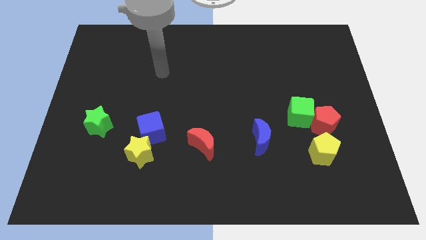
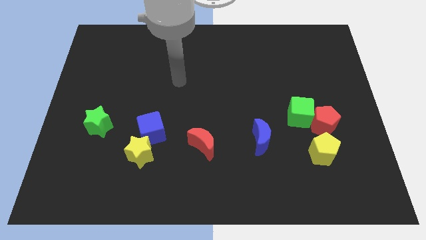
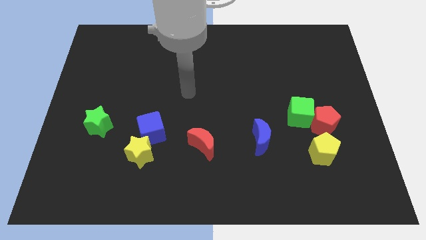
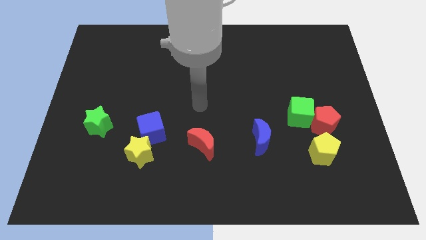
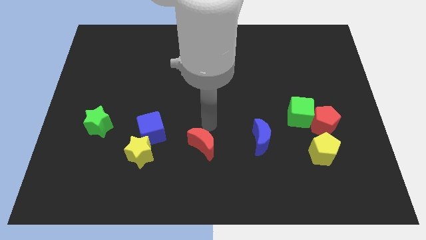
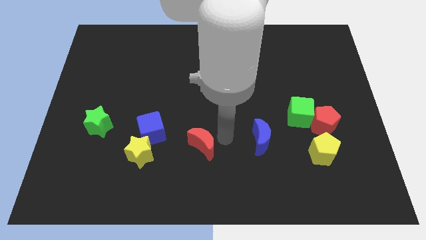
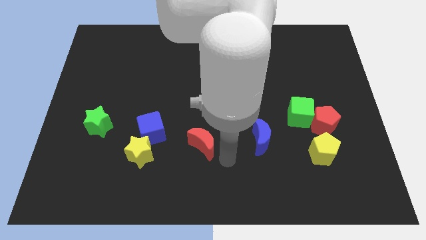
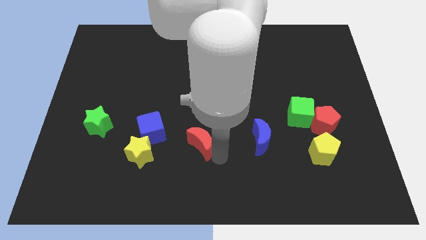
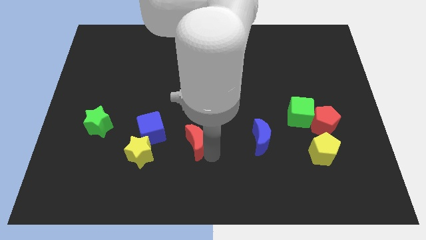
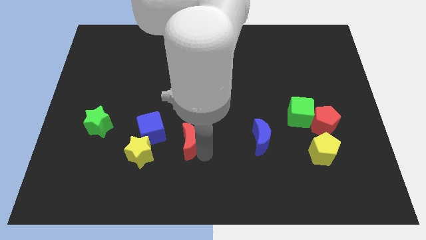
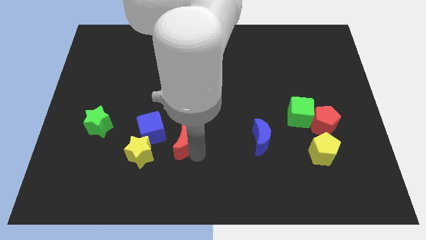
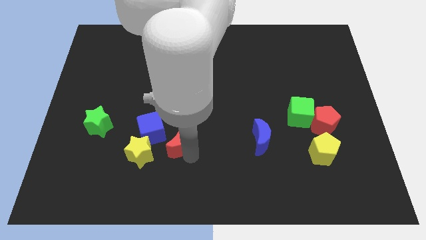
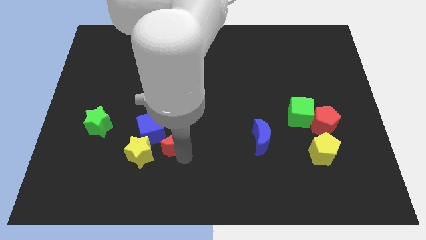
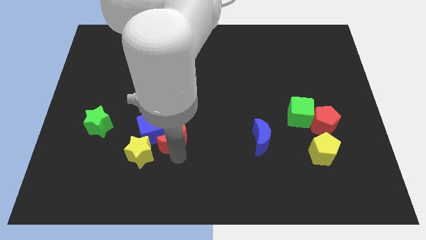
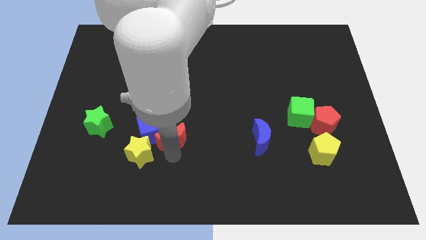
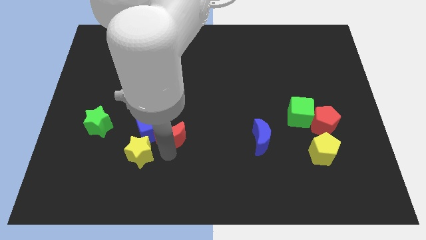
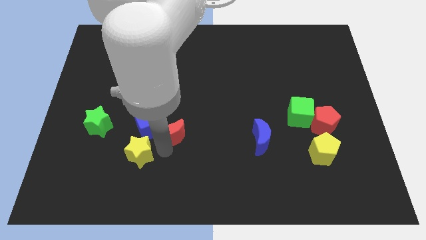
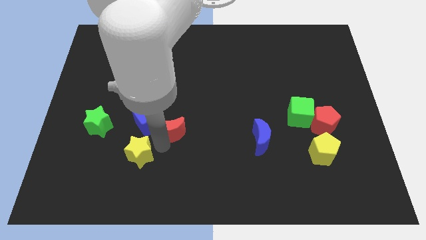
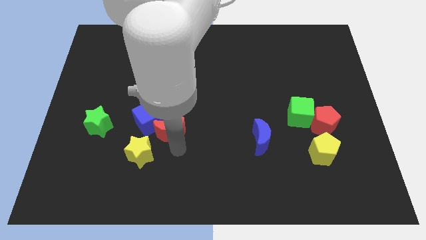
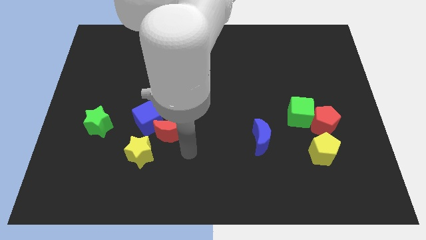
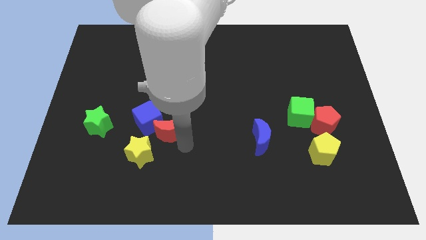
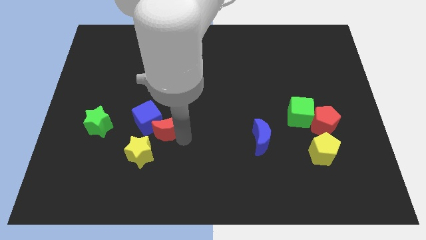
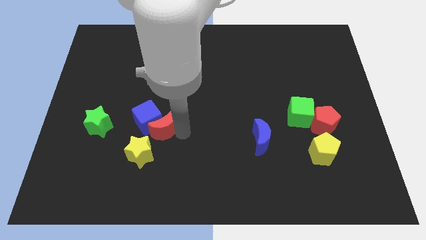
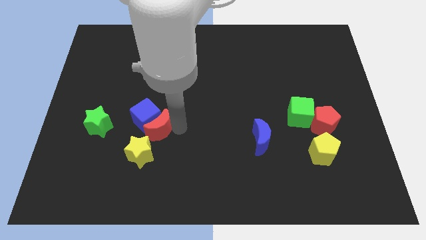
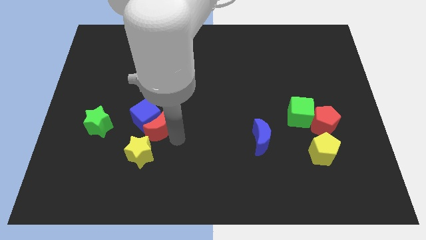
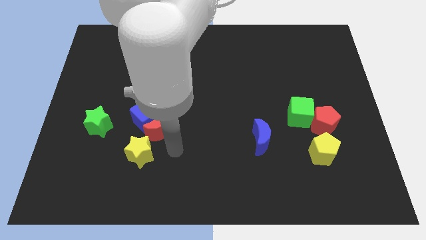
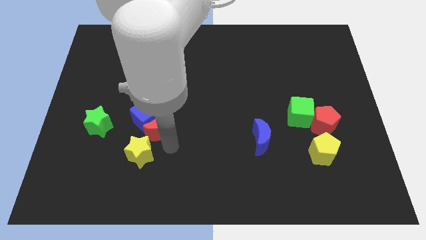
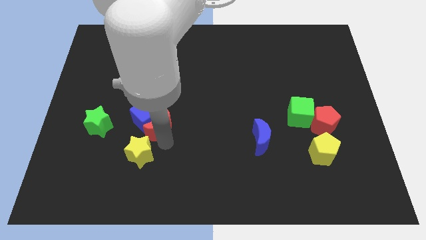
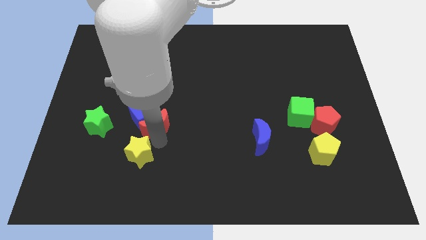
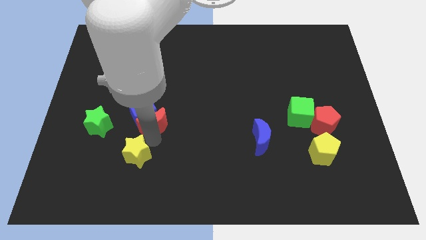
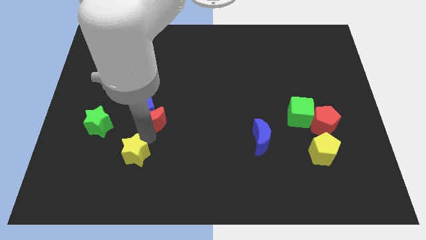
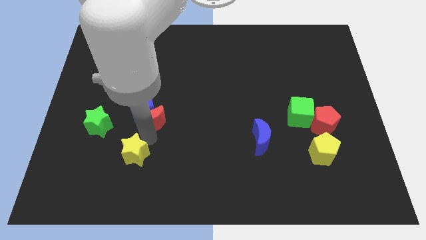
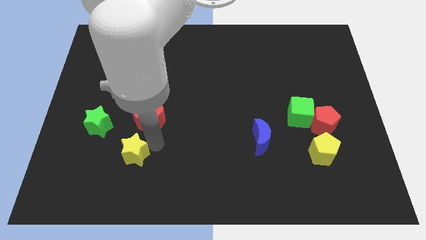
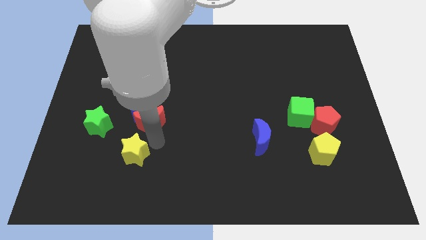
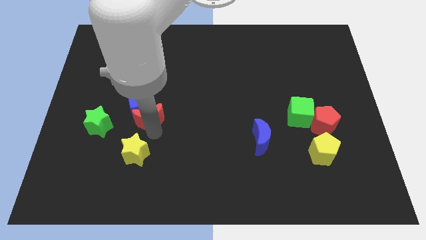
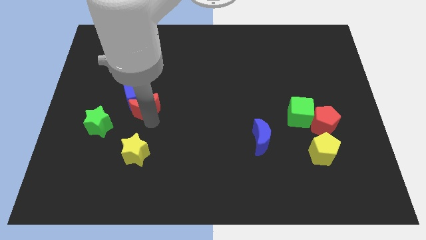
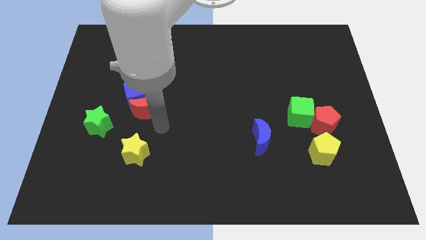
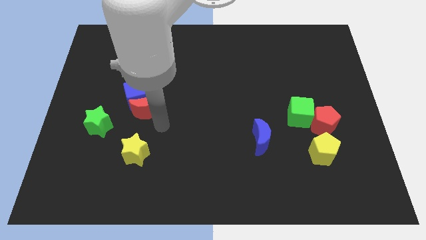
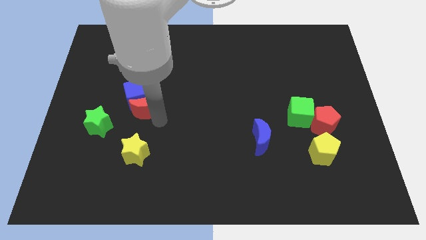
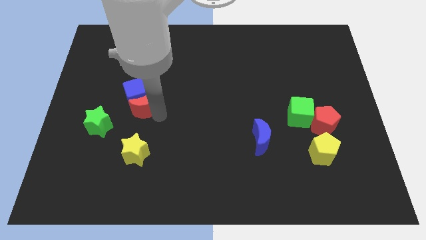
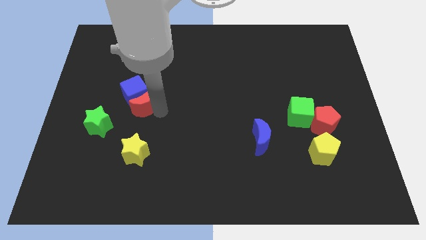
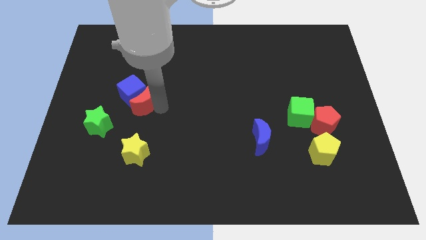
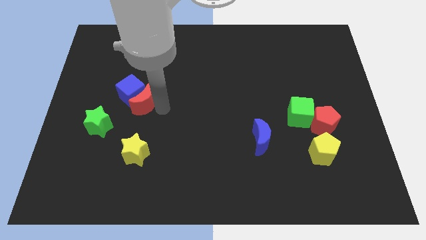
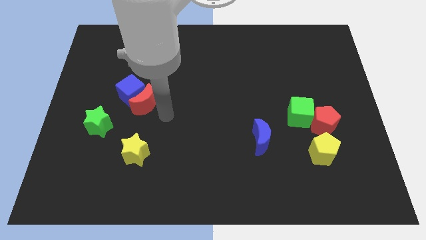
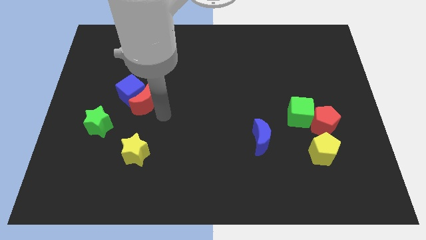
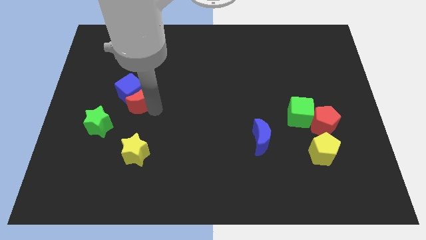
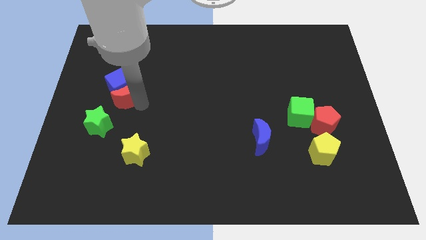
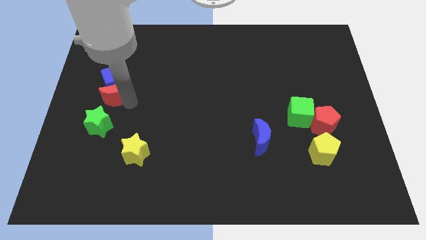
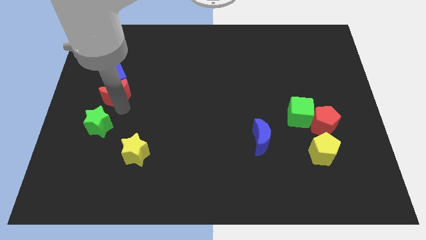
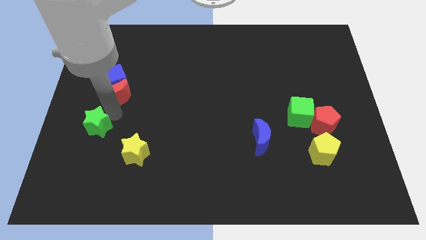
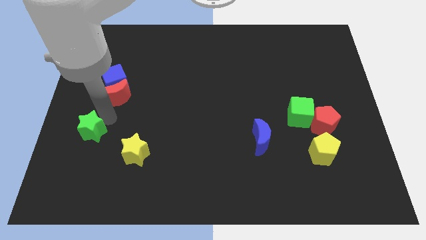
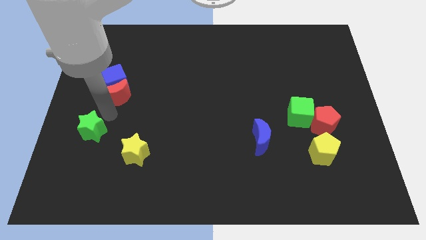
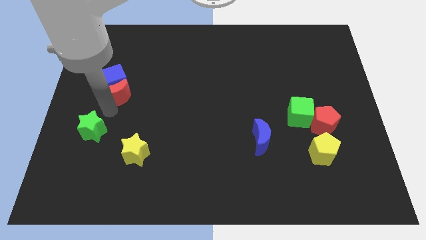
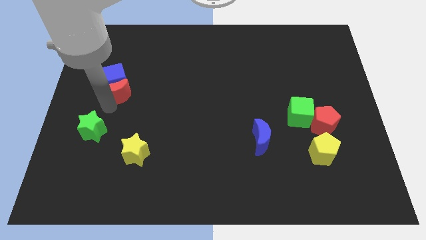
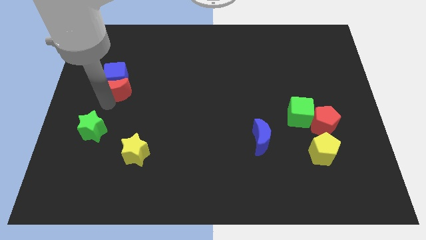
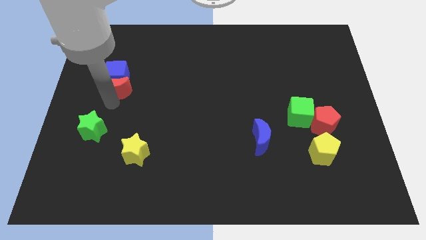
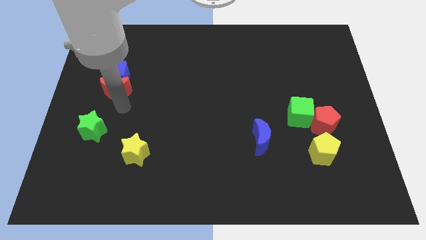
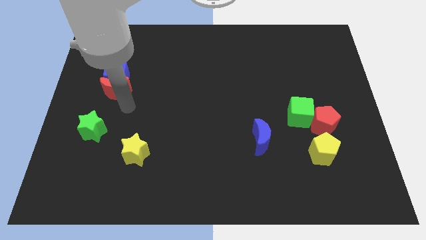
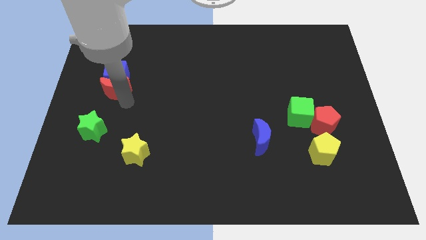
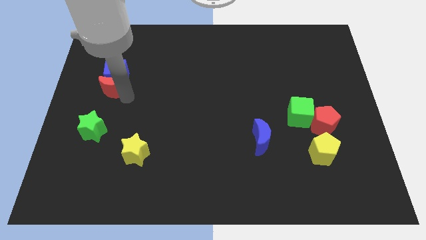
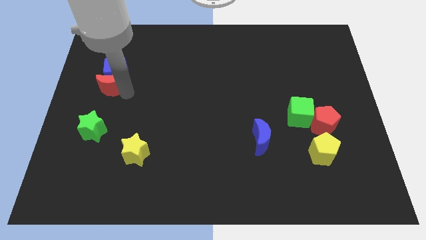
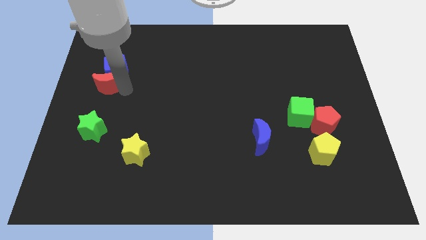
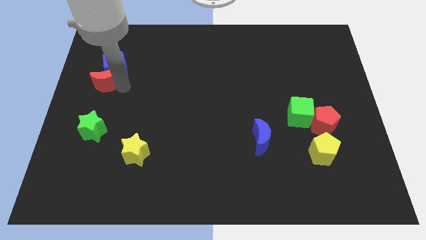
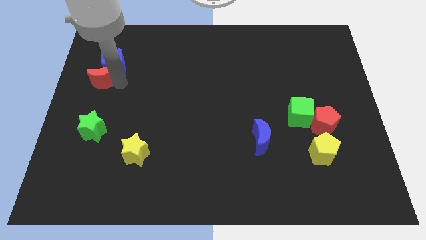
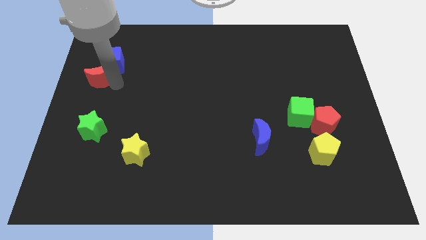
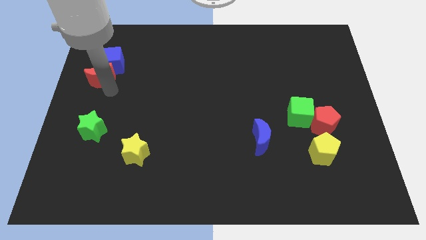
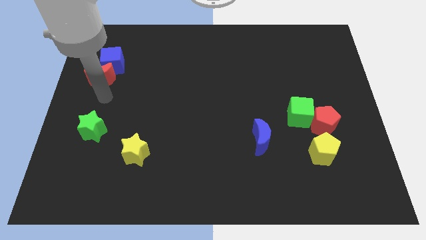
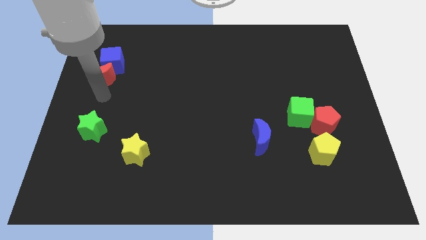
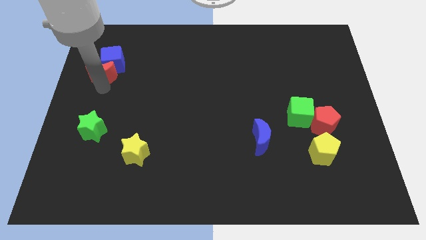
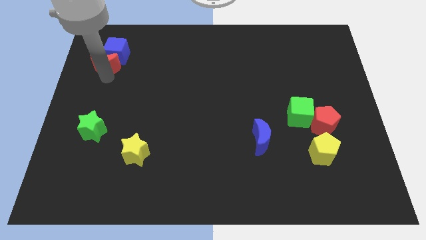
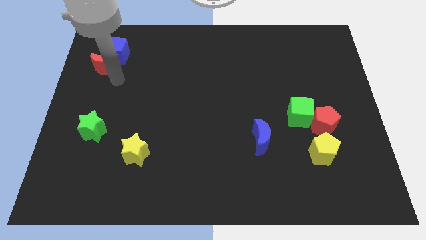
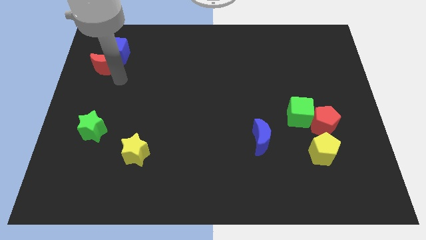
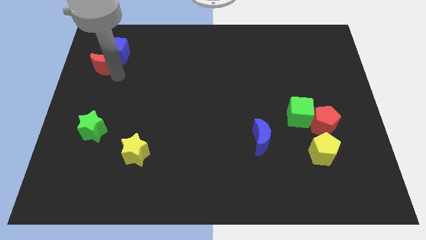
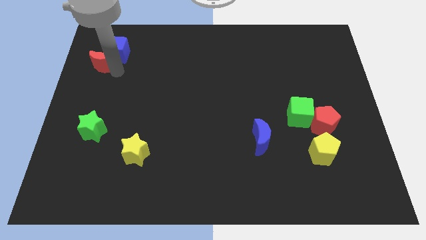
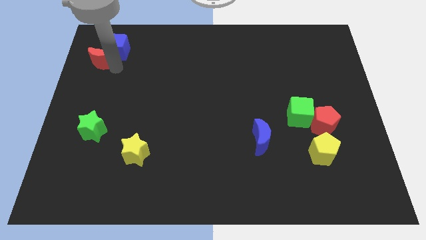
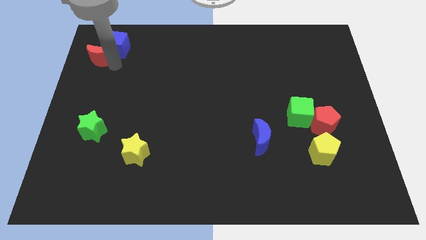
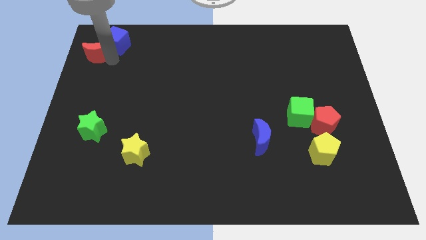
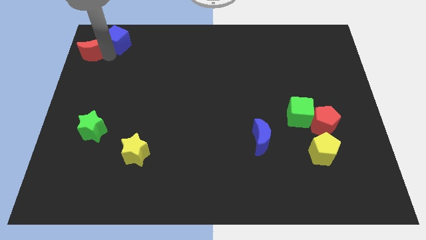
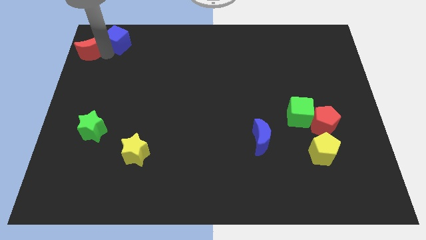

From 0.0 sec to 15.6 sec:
push the red moon to the top left of the board
